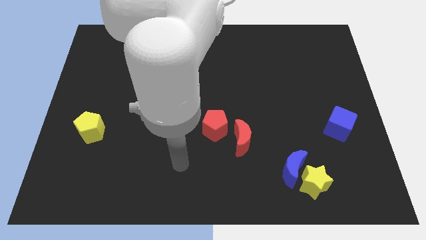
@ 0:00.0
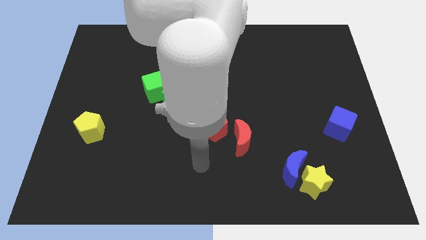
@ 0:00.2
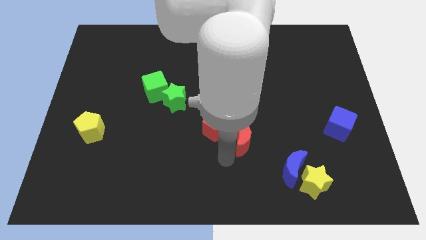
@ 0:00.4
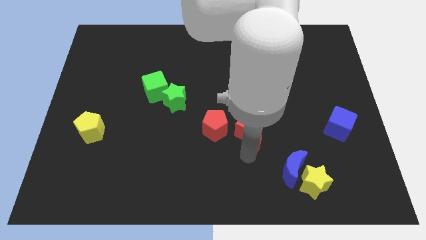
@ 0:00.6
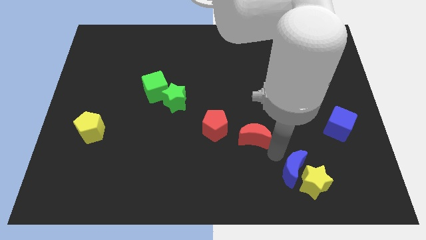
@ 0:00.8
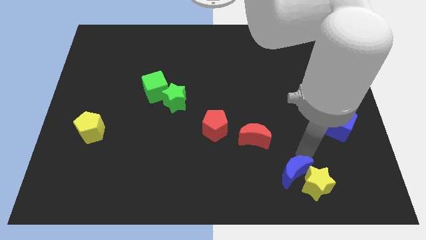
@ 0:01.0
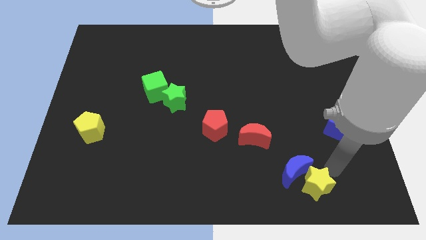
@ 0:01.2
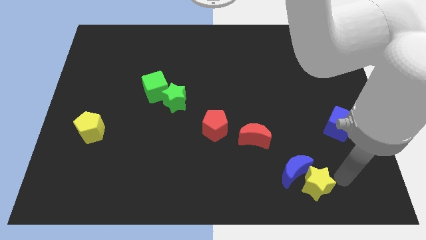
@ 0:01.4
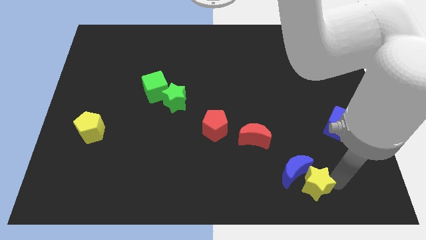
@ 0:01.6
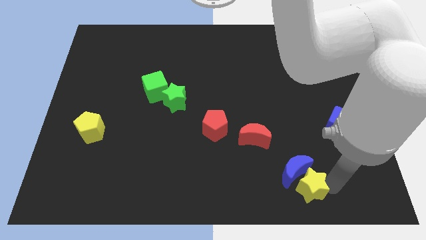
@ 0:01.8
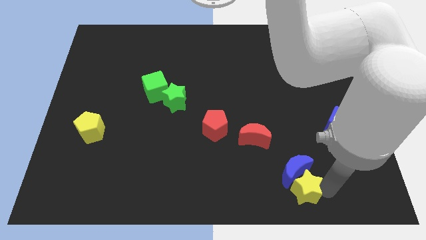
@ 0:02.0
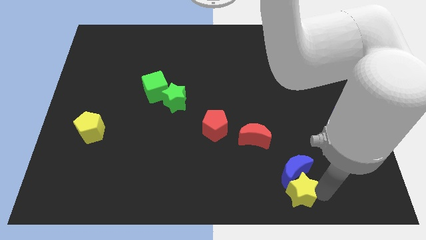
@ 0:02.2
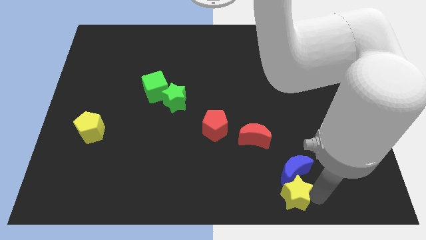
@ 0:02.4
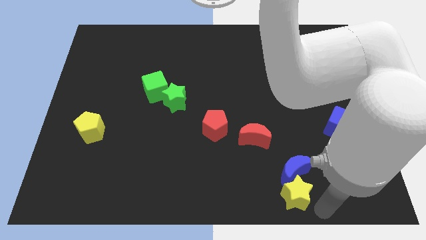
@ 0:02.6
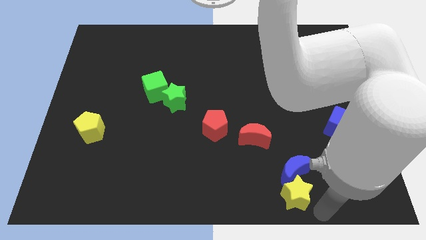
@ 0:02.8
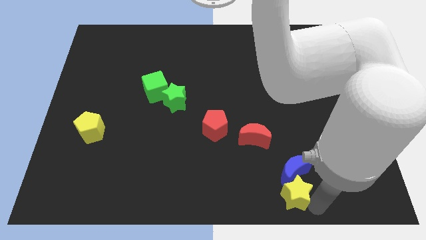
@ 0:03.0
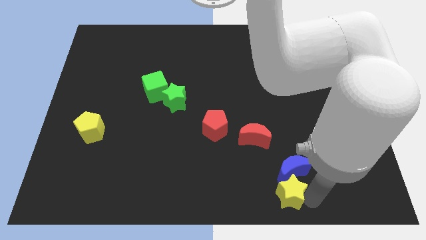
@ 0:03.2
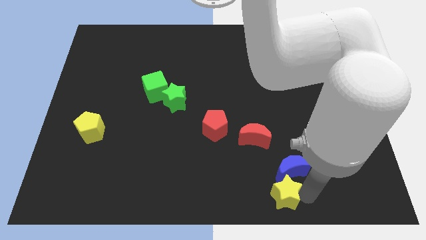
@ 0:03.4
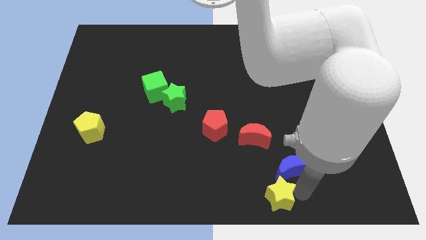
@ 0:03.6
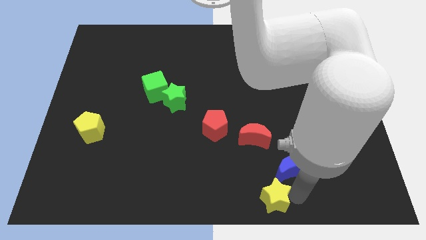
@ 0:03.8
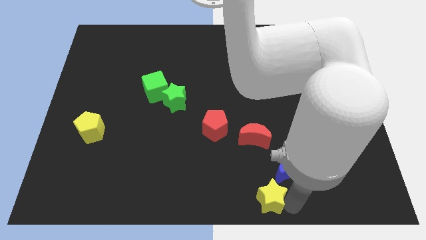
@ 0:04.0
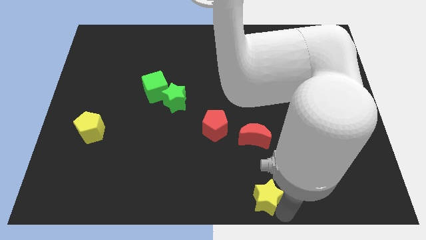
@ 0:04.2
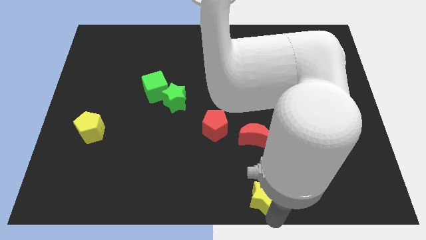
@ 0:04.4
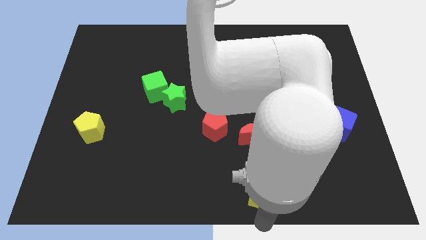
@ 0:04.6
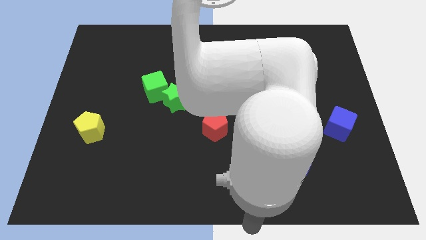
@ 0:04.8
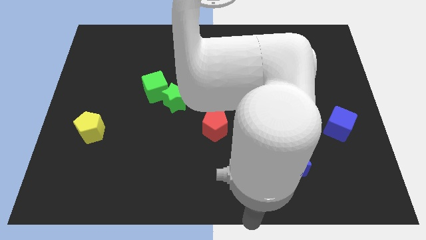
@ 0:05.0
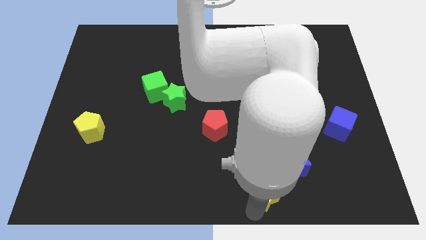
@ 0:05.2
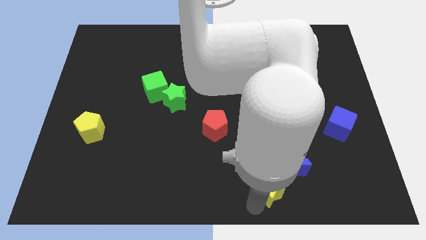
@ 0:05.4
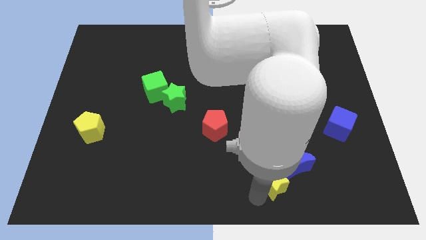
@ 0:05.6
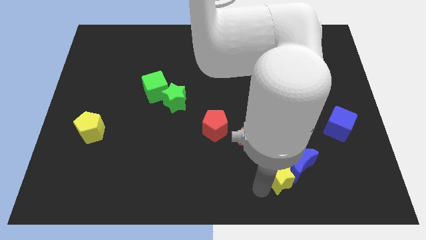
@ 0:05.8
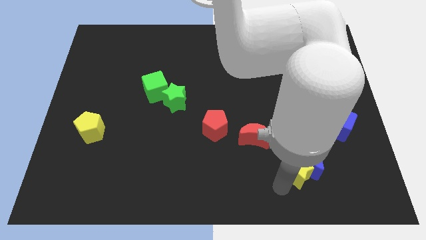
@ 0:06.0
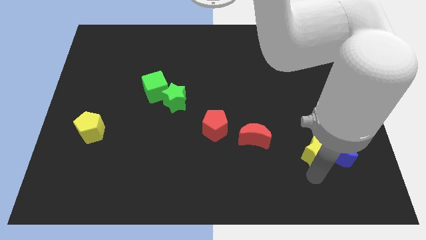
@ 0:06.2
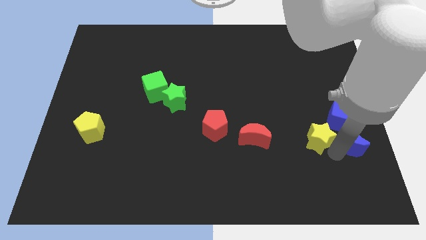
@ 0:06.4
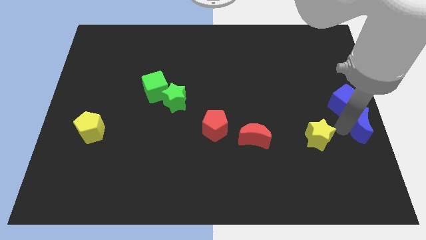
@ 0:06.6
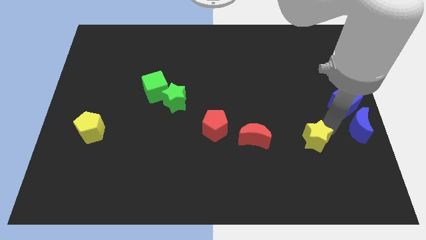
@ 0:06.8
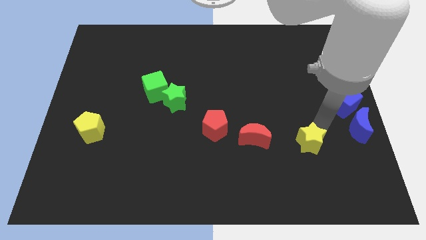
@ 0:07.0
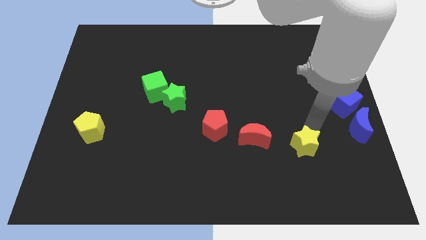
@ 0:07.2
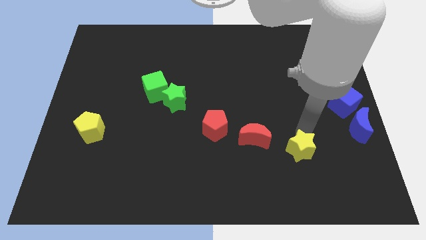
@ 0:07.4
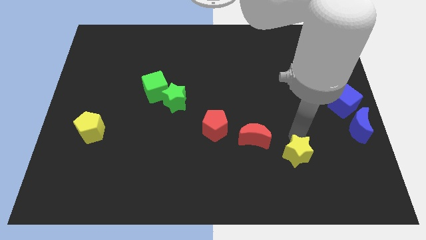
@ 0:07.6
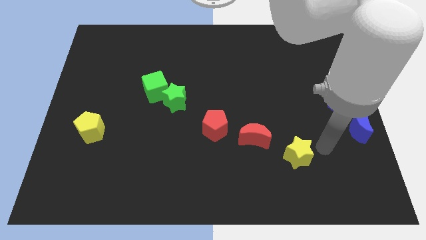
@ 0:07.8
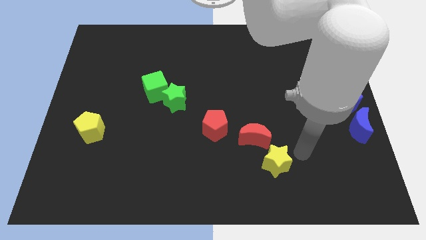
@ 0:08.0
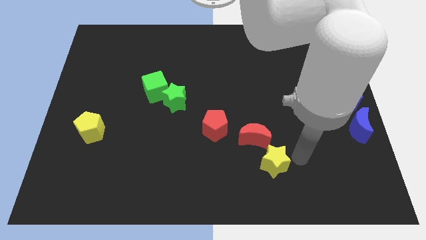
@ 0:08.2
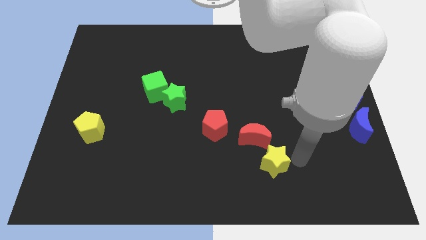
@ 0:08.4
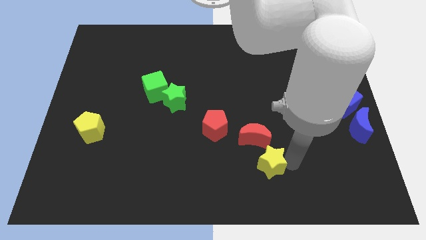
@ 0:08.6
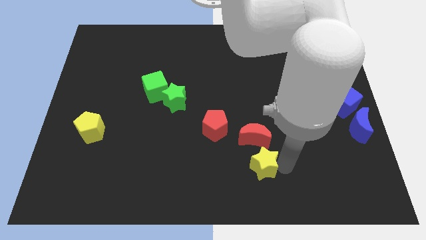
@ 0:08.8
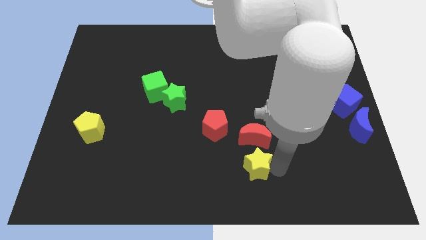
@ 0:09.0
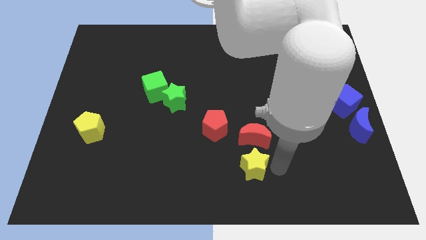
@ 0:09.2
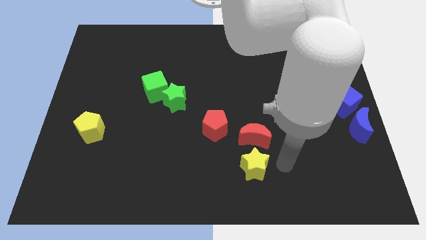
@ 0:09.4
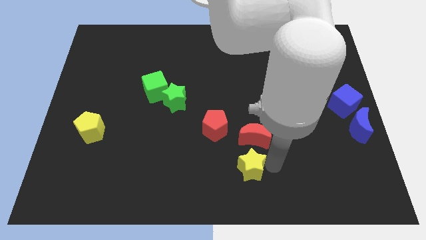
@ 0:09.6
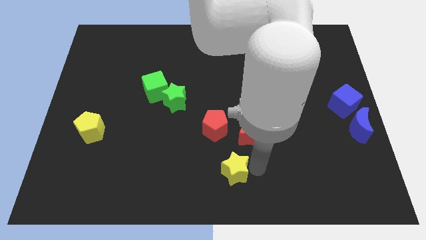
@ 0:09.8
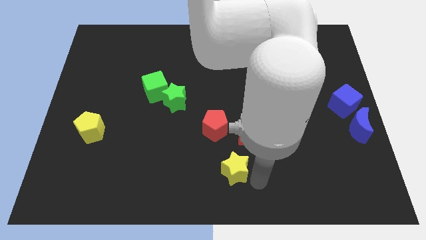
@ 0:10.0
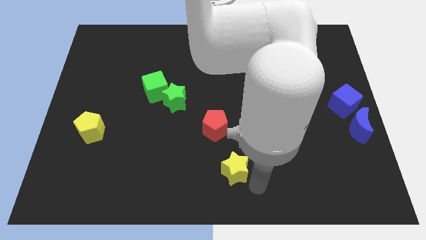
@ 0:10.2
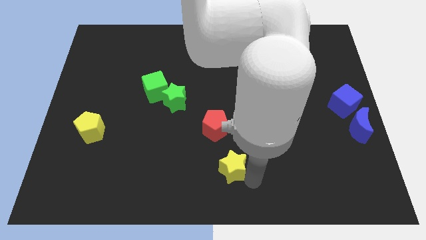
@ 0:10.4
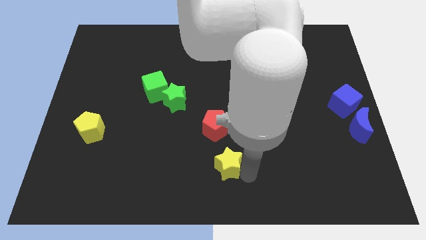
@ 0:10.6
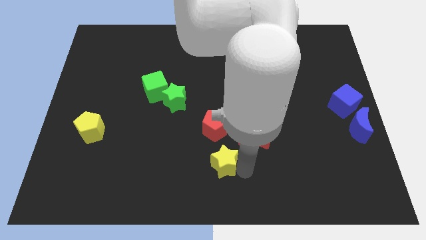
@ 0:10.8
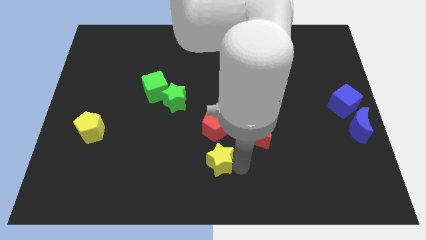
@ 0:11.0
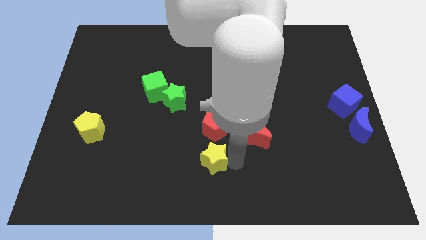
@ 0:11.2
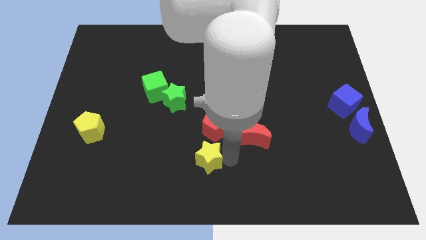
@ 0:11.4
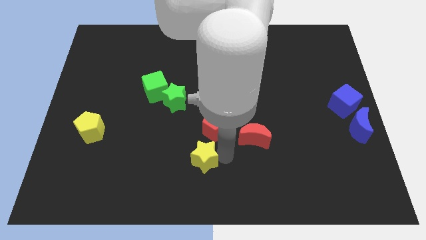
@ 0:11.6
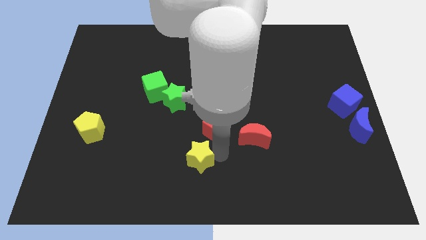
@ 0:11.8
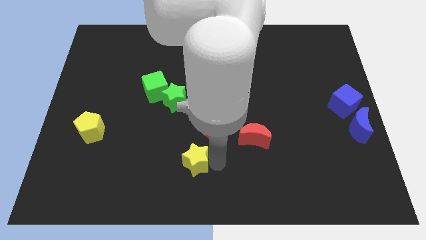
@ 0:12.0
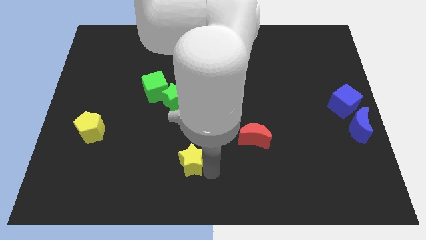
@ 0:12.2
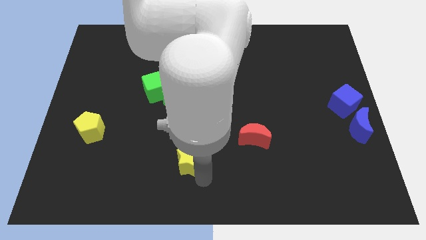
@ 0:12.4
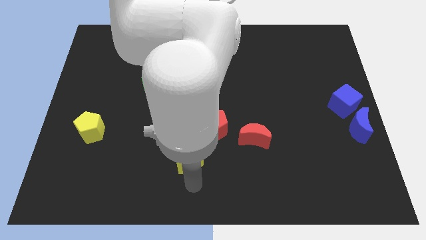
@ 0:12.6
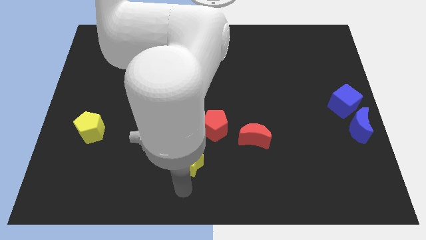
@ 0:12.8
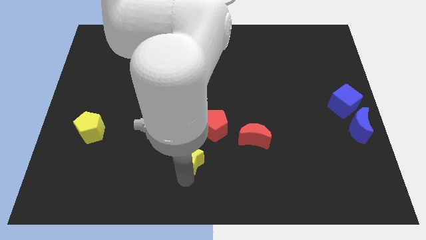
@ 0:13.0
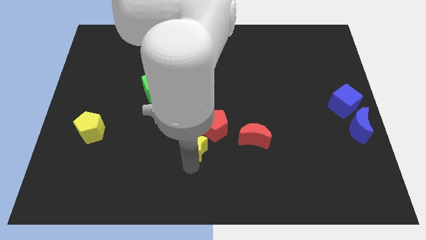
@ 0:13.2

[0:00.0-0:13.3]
push the yellow star to the bottom of the green star

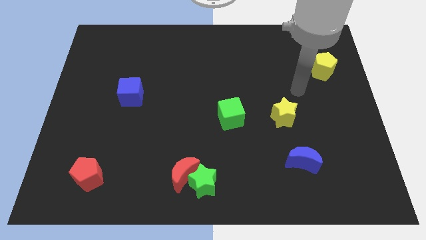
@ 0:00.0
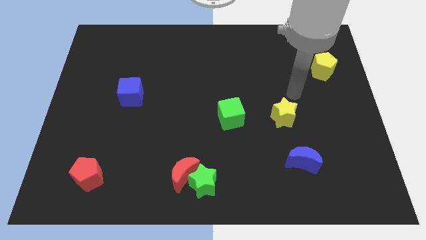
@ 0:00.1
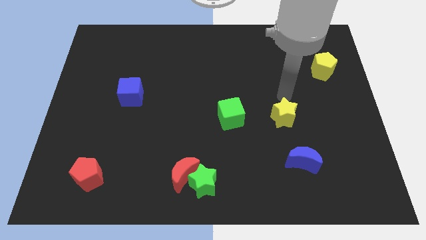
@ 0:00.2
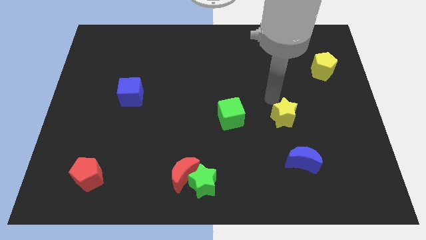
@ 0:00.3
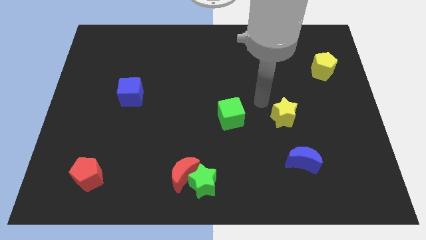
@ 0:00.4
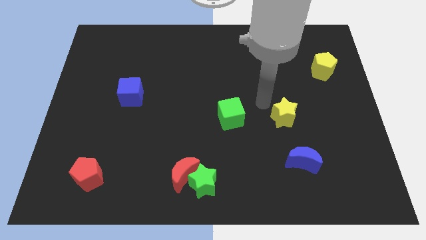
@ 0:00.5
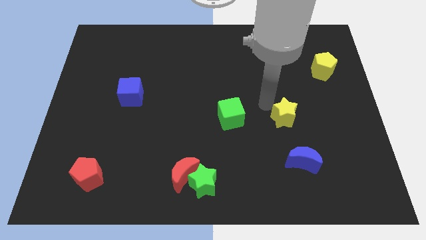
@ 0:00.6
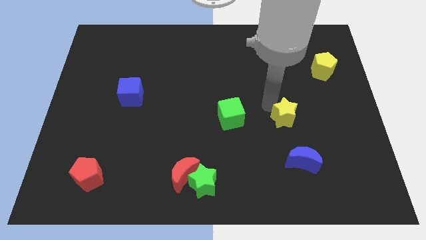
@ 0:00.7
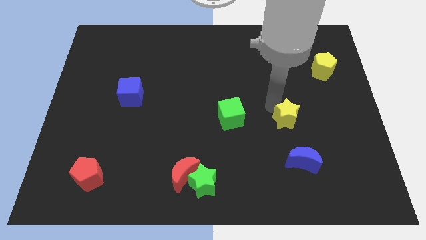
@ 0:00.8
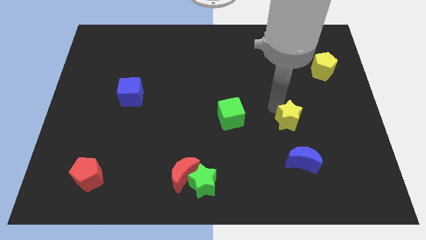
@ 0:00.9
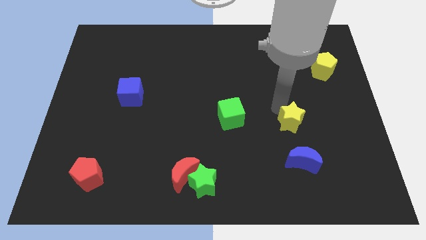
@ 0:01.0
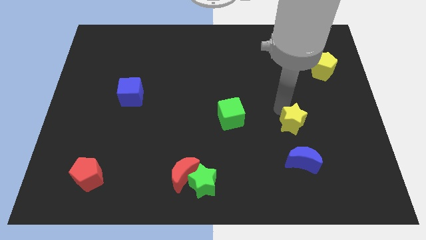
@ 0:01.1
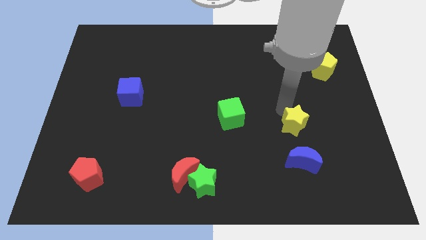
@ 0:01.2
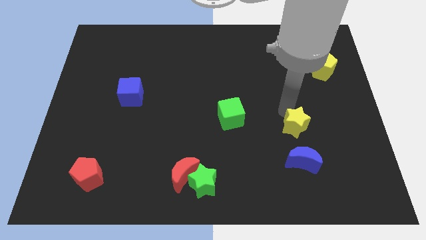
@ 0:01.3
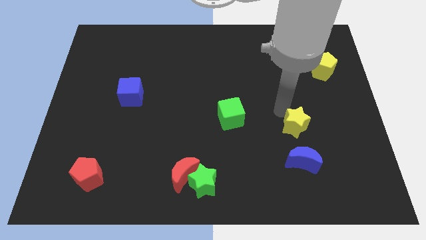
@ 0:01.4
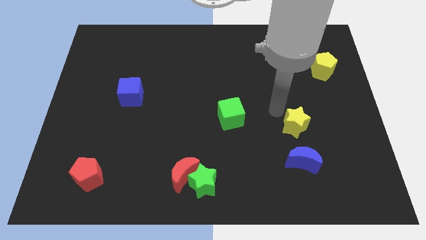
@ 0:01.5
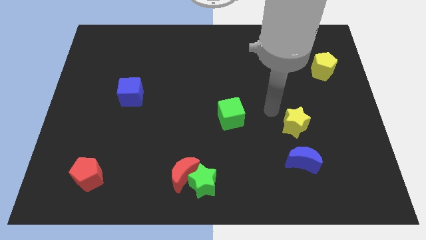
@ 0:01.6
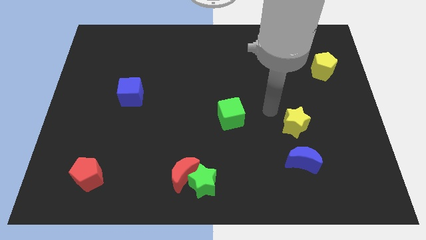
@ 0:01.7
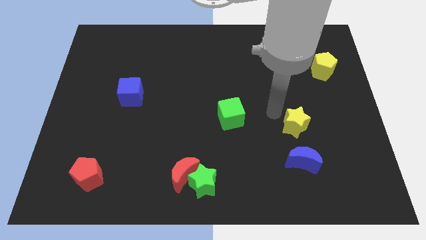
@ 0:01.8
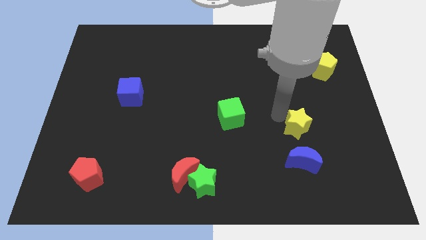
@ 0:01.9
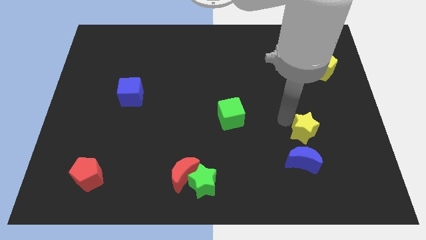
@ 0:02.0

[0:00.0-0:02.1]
put the yellow star to the top right side of the blue moon
